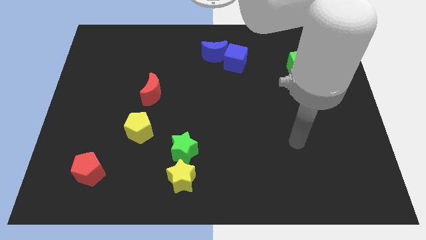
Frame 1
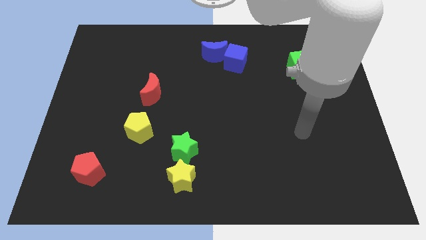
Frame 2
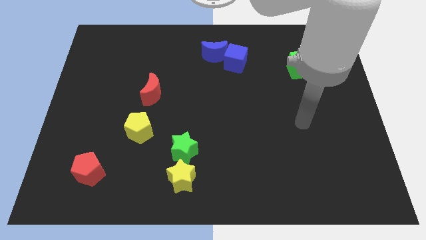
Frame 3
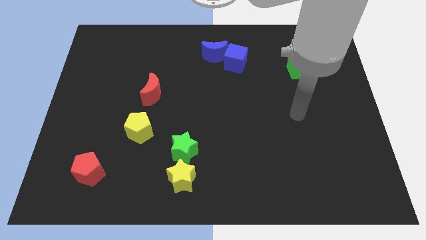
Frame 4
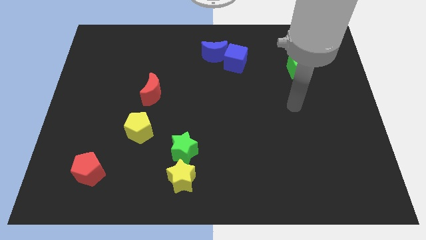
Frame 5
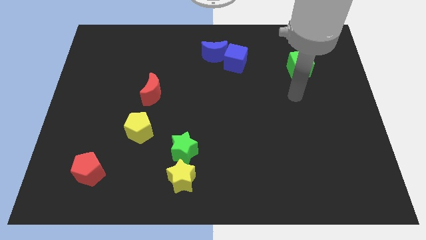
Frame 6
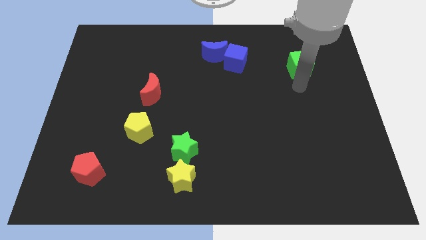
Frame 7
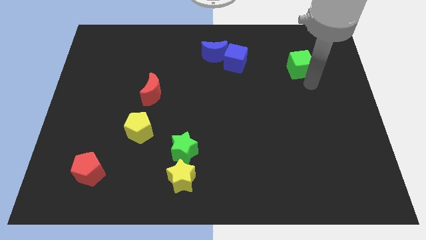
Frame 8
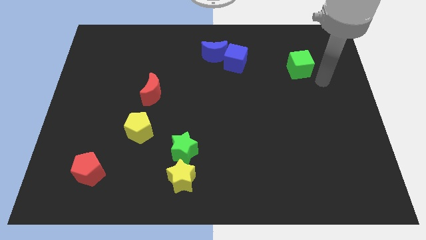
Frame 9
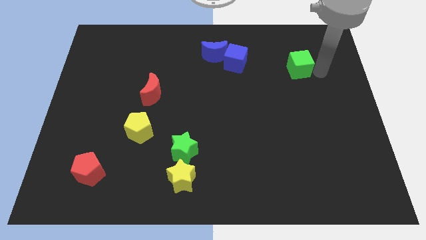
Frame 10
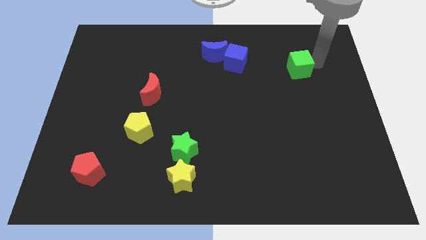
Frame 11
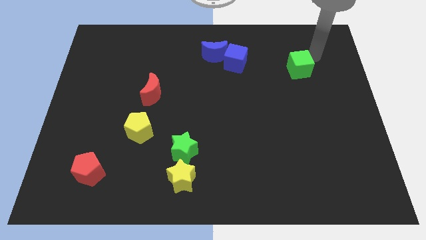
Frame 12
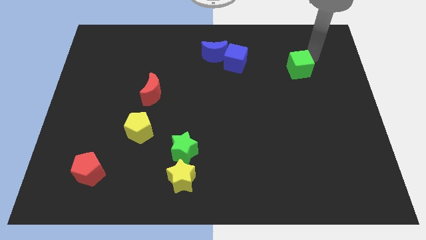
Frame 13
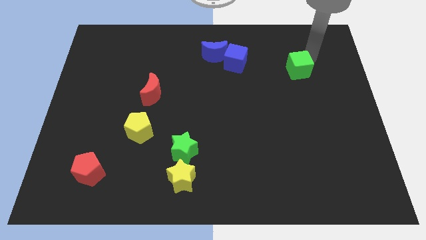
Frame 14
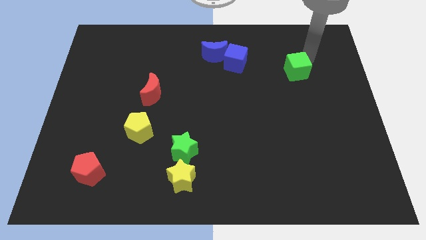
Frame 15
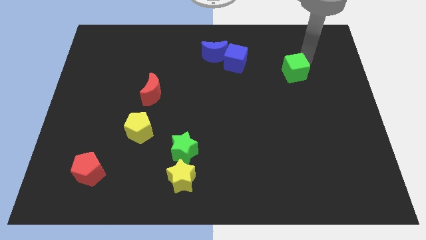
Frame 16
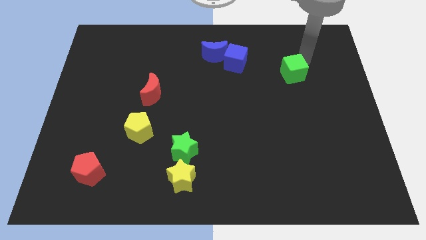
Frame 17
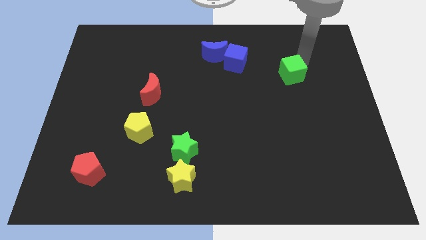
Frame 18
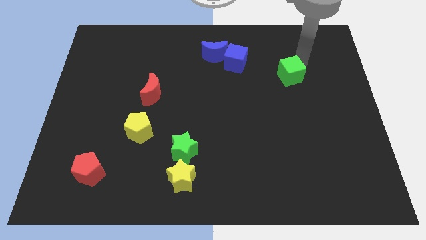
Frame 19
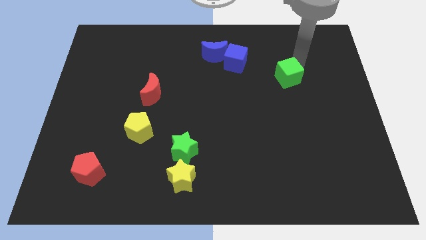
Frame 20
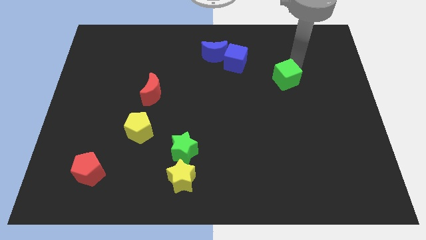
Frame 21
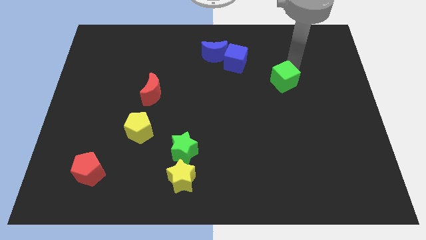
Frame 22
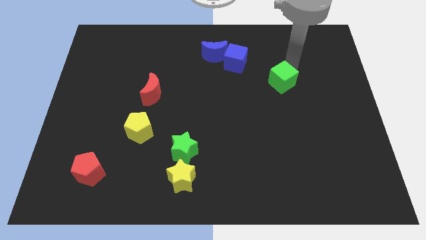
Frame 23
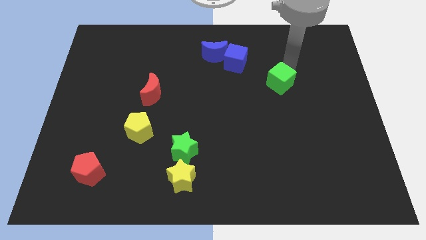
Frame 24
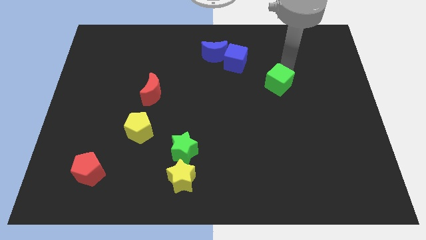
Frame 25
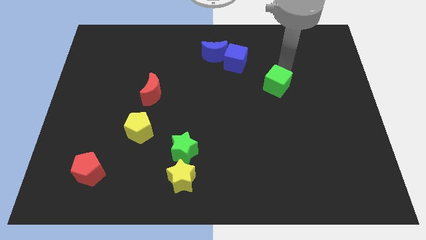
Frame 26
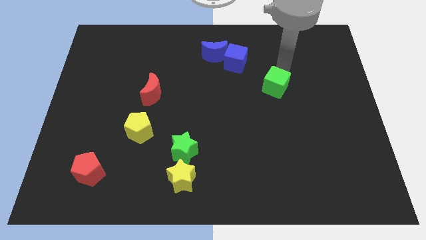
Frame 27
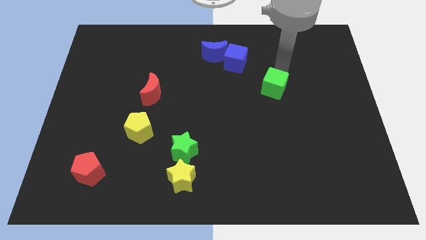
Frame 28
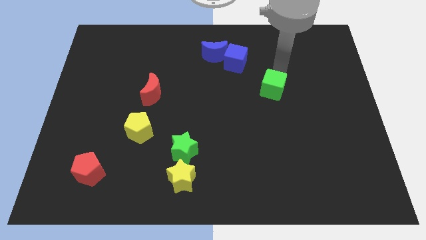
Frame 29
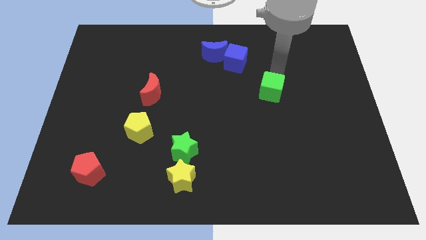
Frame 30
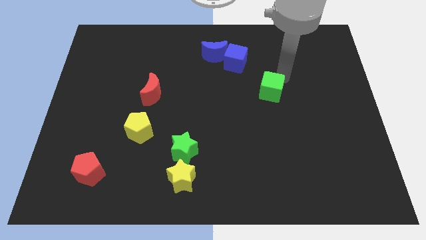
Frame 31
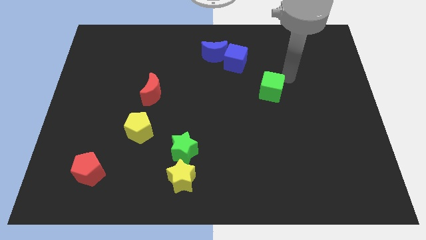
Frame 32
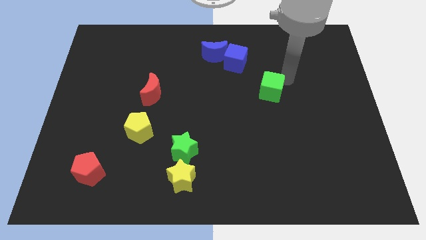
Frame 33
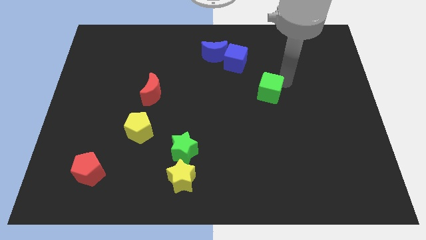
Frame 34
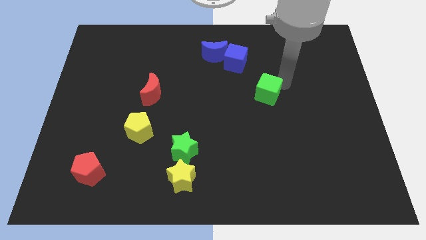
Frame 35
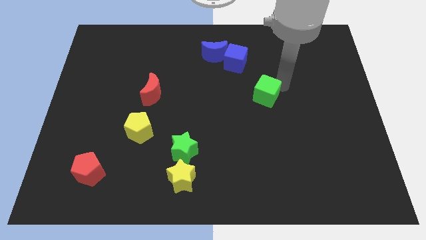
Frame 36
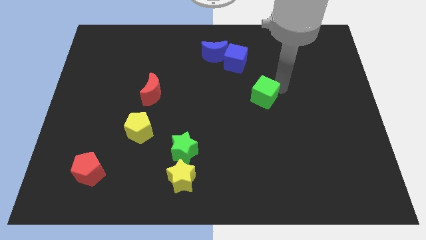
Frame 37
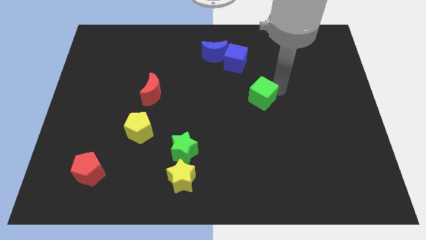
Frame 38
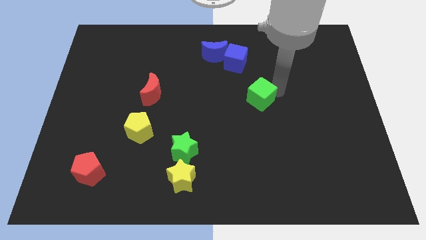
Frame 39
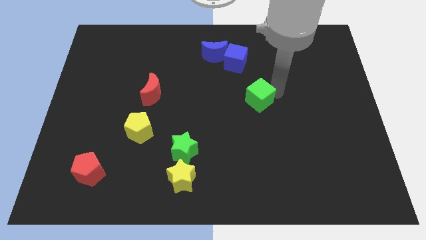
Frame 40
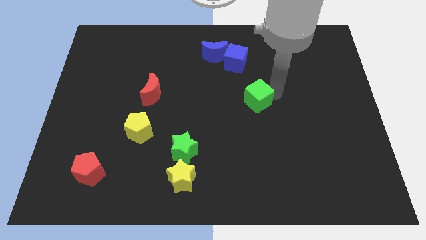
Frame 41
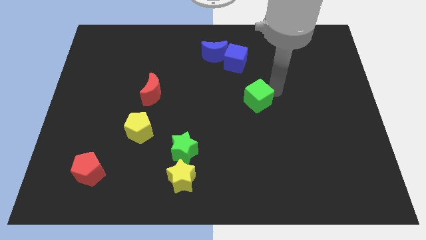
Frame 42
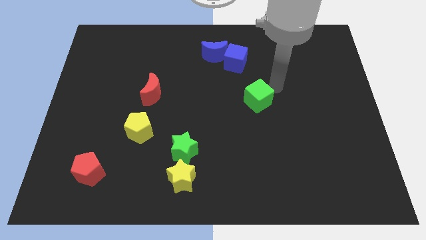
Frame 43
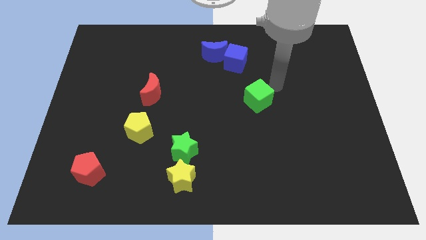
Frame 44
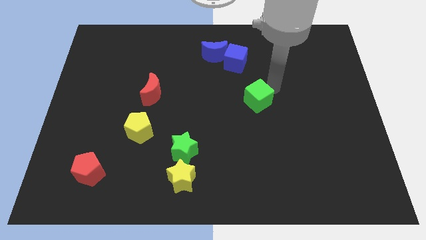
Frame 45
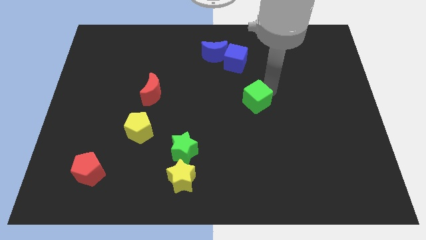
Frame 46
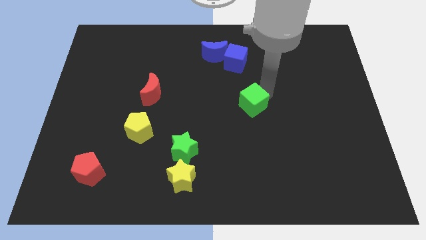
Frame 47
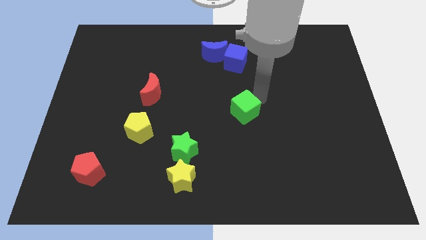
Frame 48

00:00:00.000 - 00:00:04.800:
move the green cube downwards and to the left

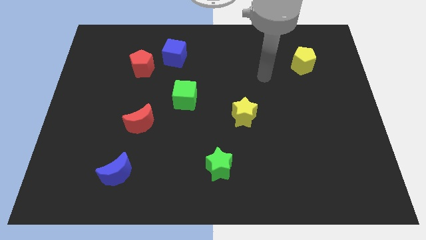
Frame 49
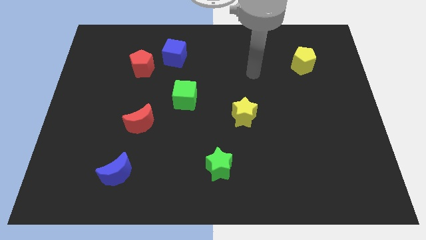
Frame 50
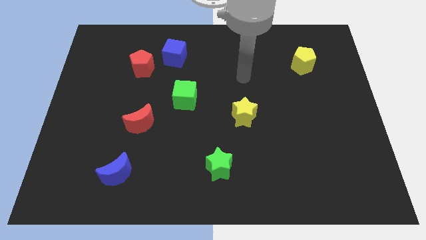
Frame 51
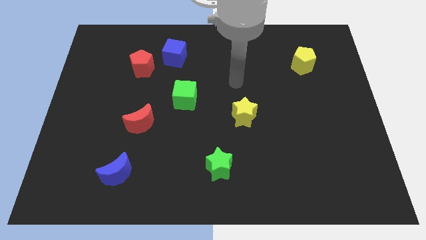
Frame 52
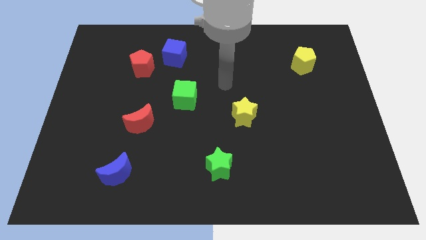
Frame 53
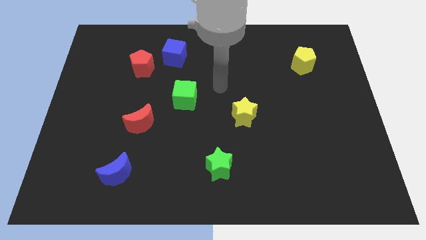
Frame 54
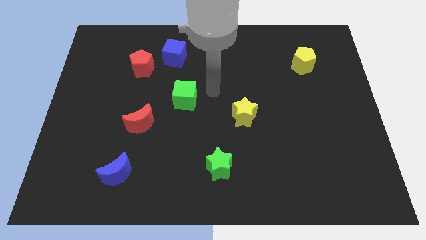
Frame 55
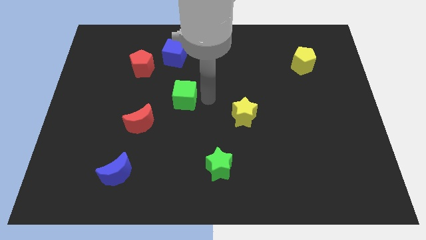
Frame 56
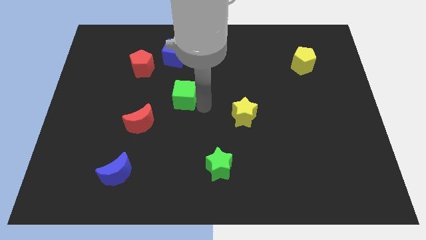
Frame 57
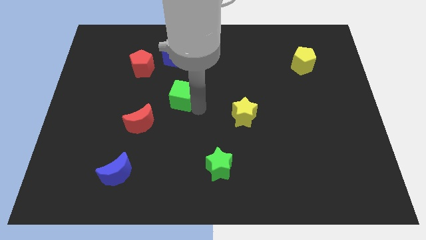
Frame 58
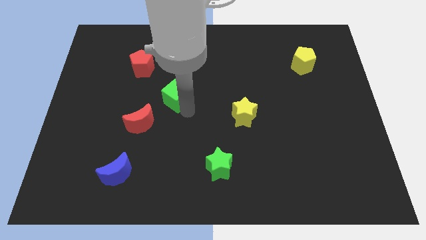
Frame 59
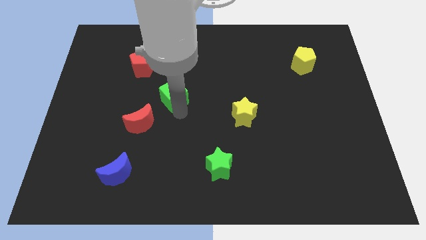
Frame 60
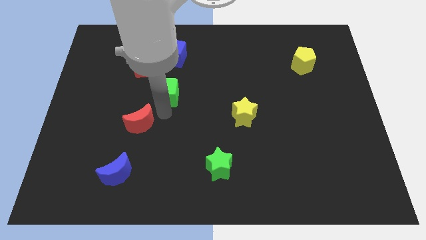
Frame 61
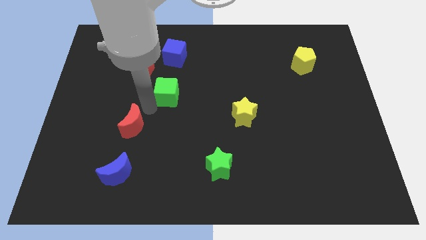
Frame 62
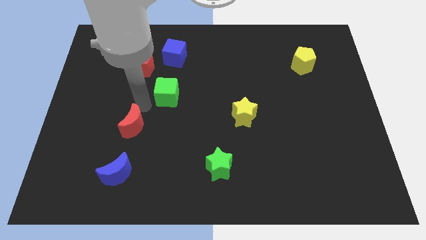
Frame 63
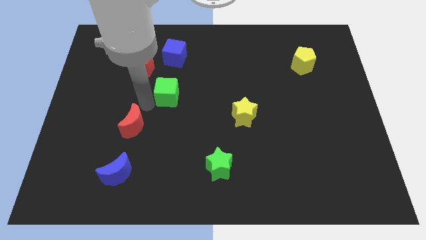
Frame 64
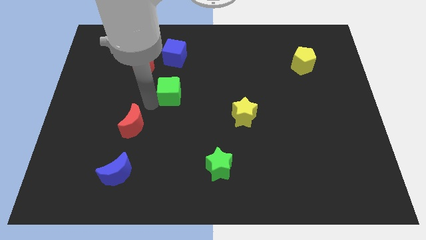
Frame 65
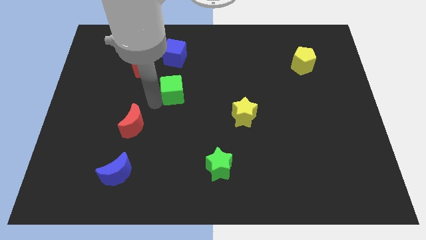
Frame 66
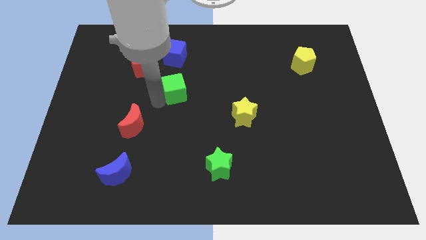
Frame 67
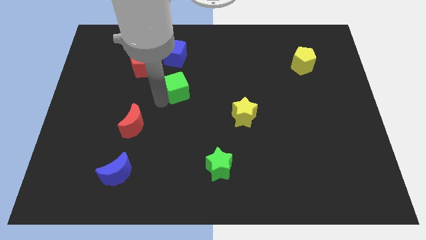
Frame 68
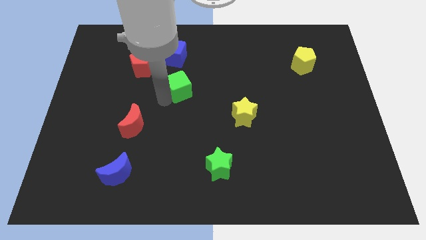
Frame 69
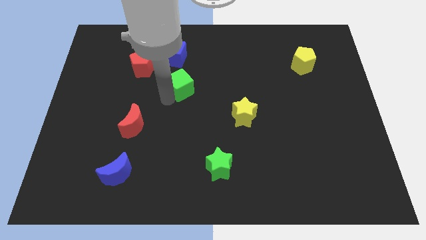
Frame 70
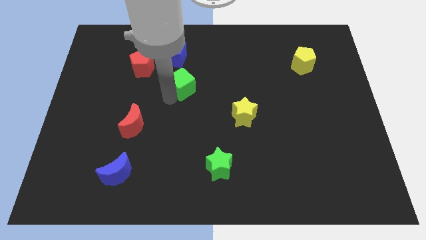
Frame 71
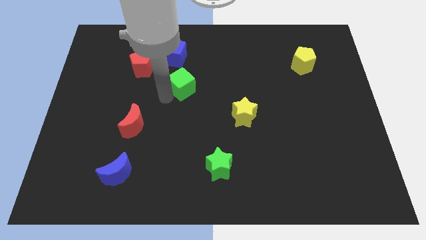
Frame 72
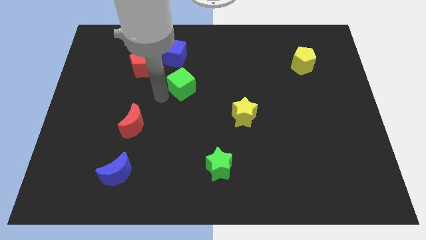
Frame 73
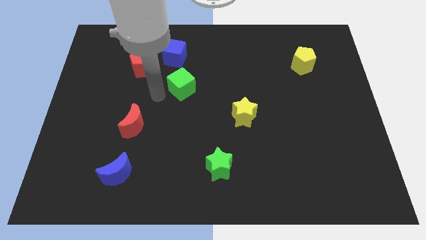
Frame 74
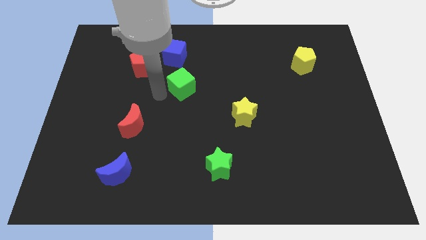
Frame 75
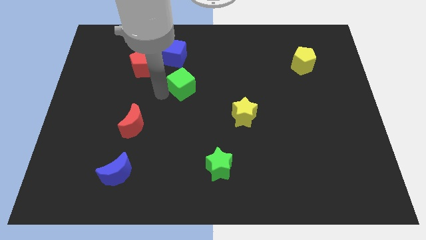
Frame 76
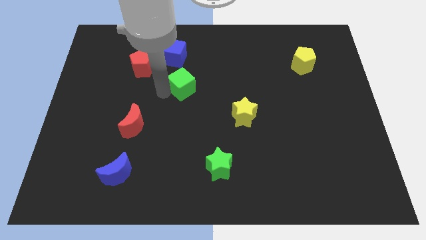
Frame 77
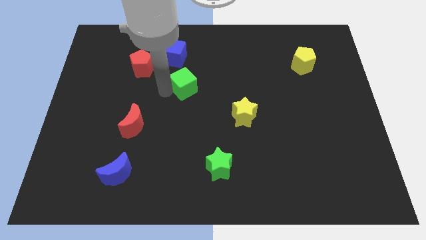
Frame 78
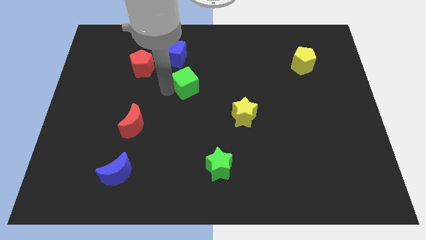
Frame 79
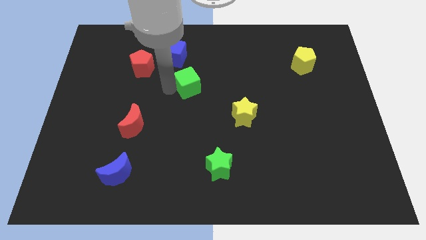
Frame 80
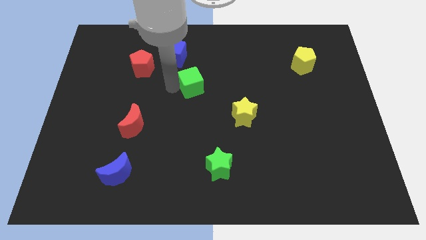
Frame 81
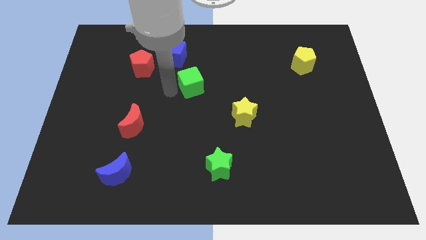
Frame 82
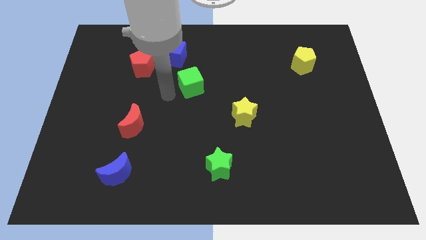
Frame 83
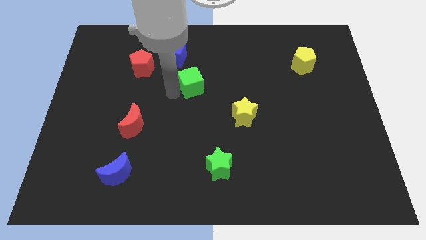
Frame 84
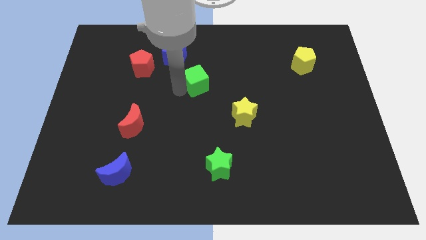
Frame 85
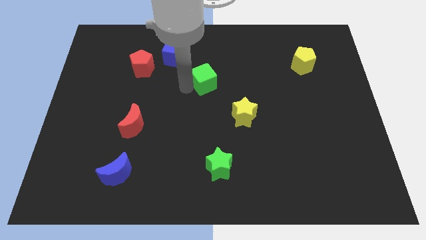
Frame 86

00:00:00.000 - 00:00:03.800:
slightly slide the green cube diagonally upwards and to the right
